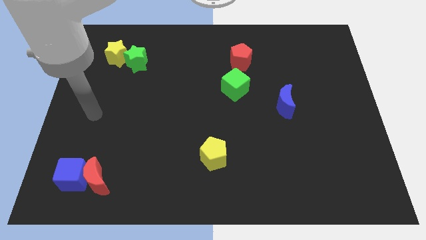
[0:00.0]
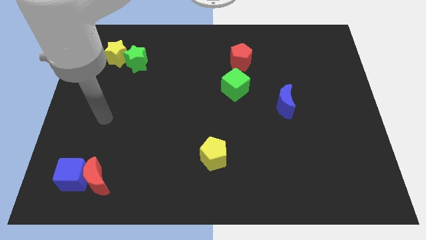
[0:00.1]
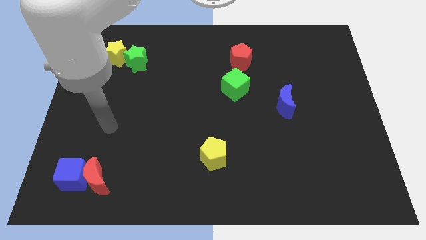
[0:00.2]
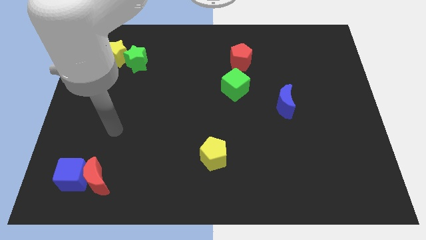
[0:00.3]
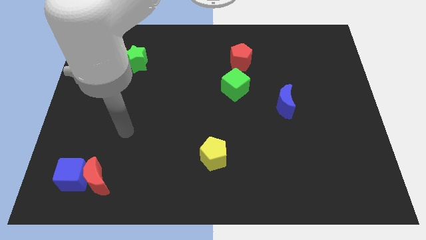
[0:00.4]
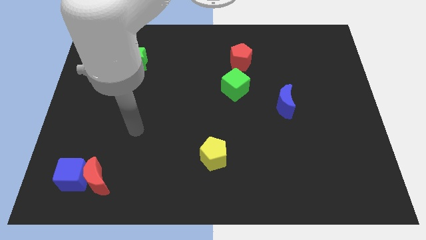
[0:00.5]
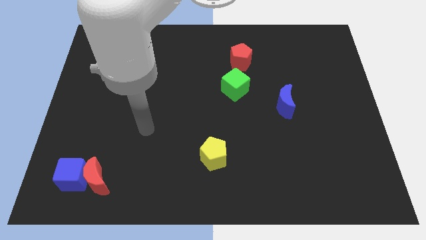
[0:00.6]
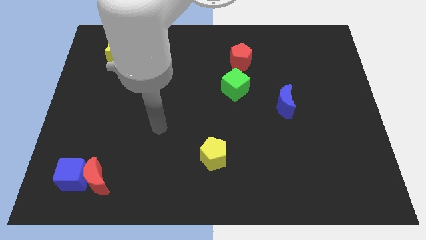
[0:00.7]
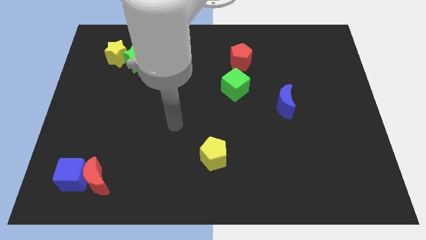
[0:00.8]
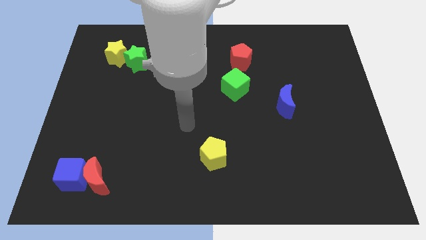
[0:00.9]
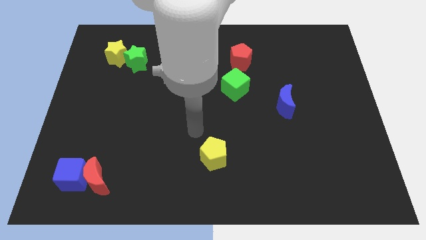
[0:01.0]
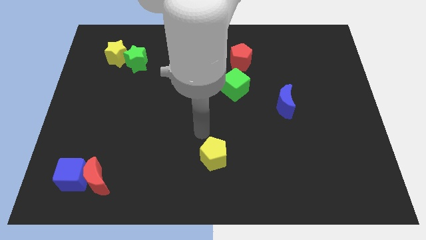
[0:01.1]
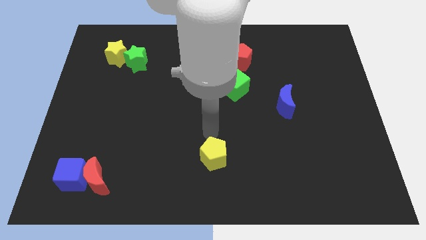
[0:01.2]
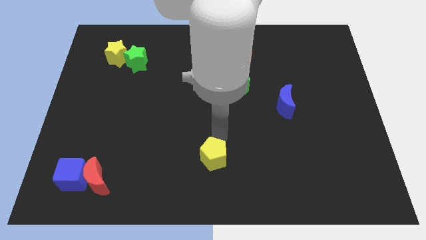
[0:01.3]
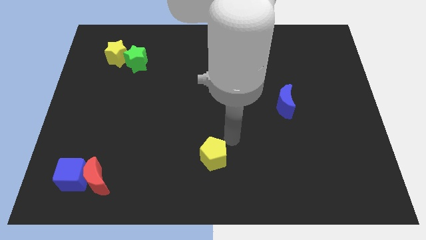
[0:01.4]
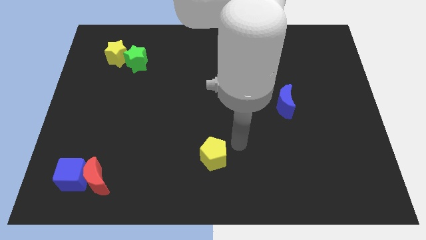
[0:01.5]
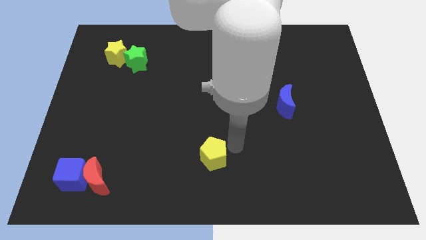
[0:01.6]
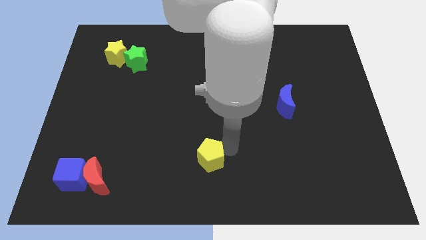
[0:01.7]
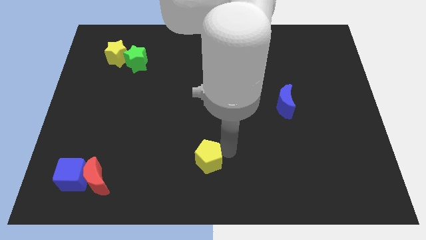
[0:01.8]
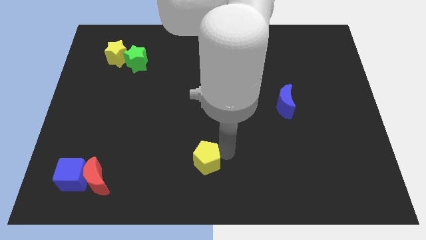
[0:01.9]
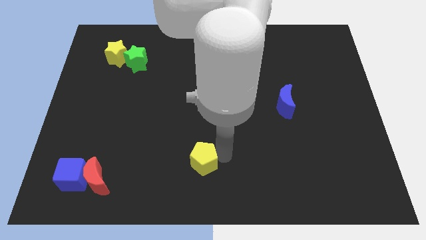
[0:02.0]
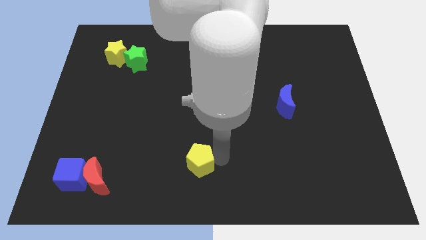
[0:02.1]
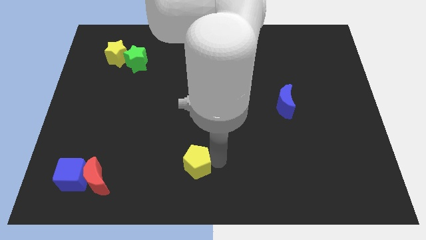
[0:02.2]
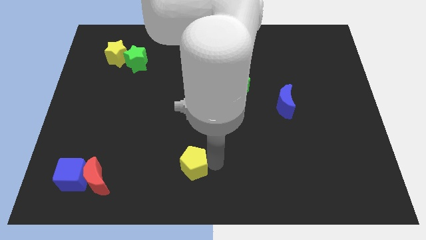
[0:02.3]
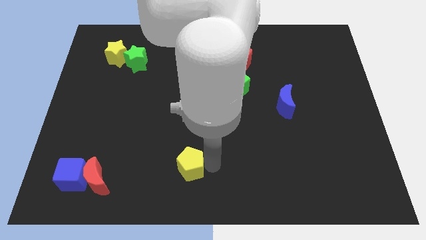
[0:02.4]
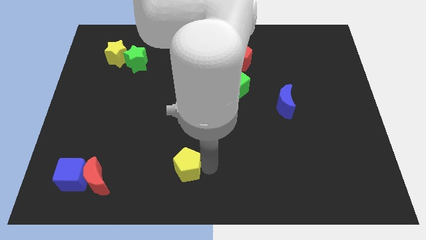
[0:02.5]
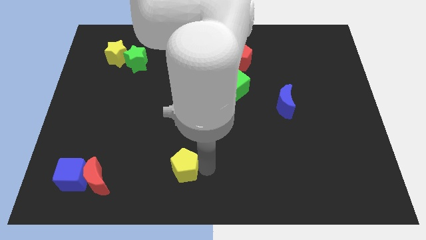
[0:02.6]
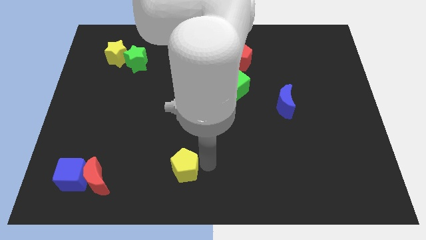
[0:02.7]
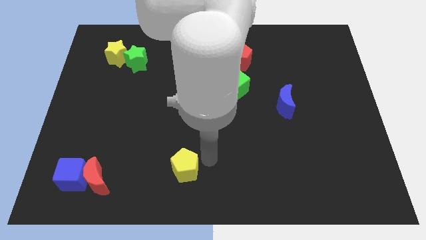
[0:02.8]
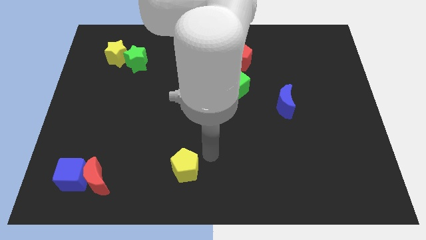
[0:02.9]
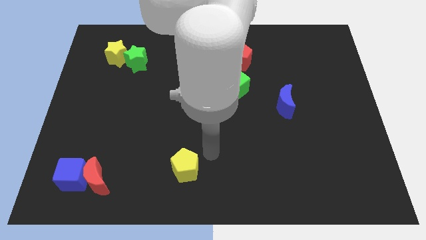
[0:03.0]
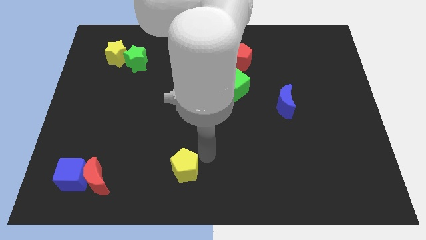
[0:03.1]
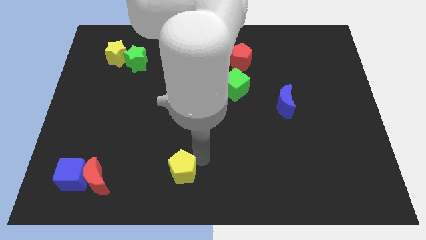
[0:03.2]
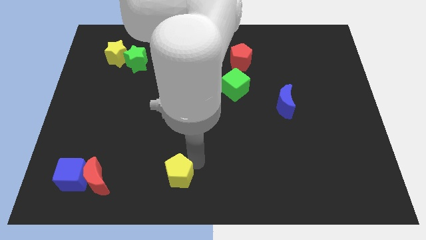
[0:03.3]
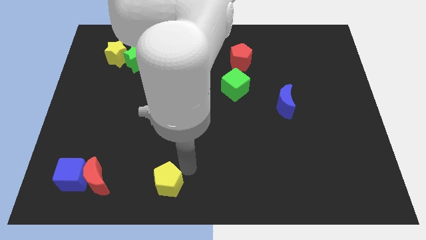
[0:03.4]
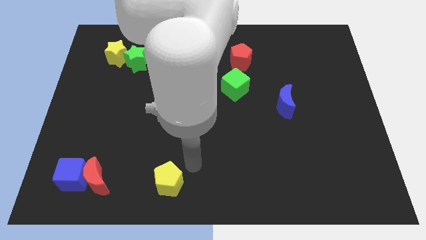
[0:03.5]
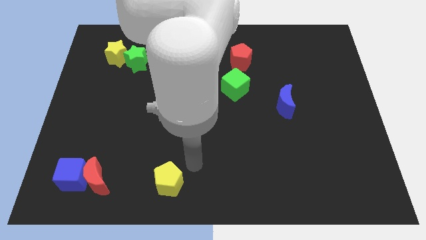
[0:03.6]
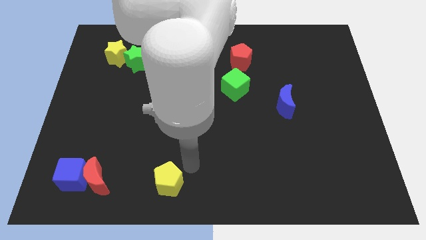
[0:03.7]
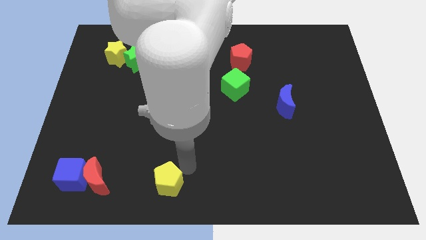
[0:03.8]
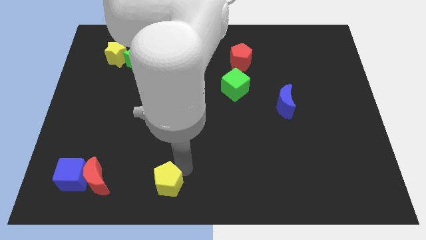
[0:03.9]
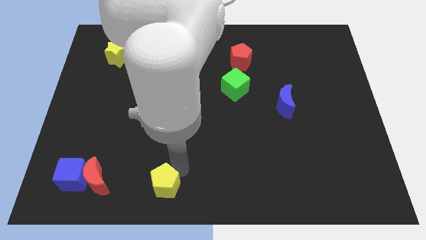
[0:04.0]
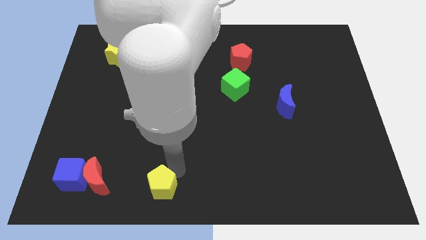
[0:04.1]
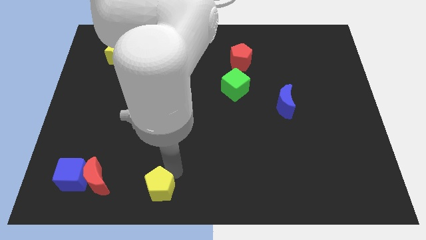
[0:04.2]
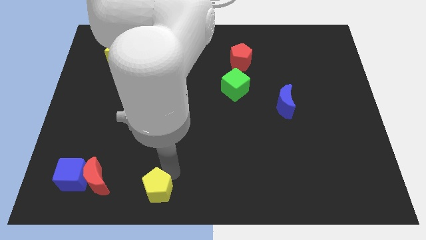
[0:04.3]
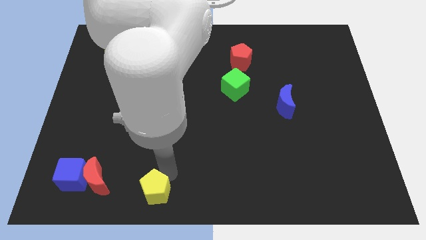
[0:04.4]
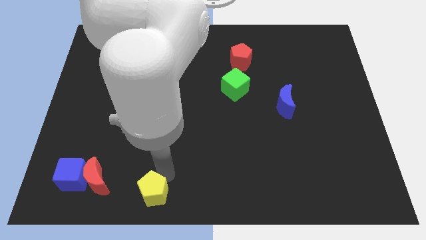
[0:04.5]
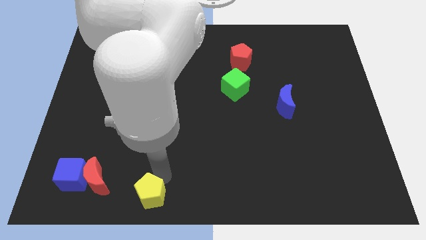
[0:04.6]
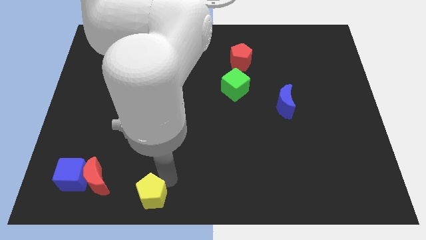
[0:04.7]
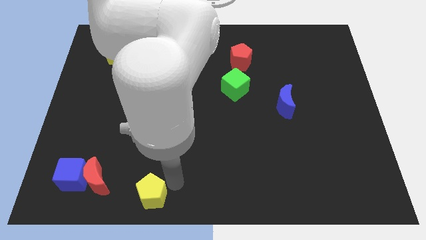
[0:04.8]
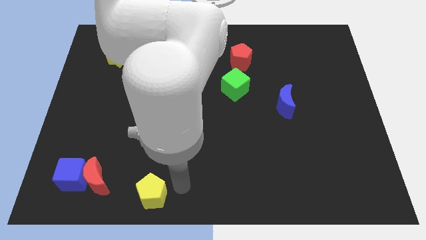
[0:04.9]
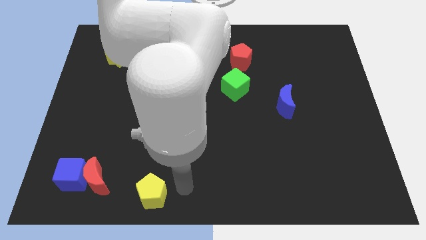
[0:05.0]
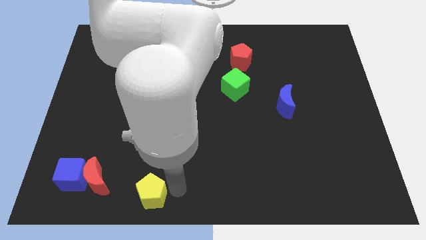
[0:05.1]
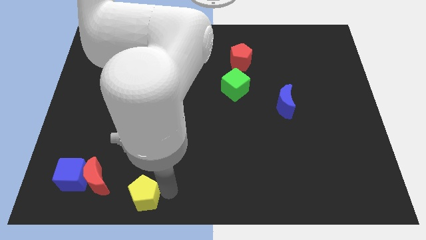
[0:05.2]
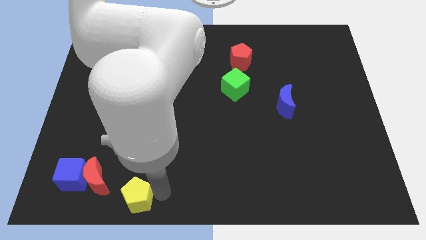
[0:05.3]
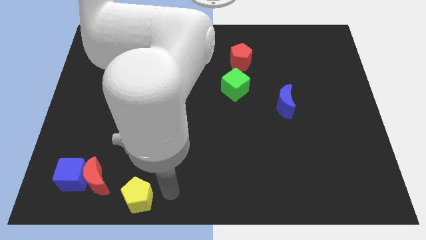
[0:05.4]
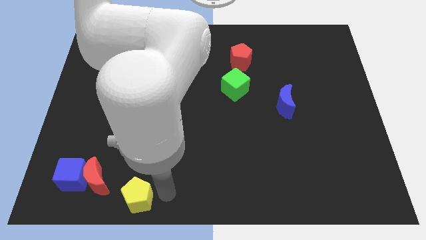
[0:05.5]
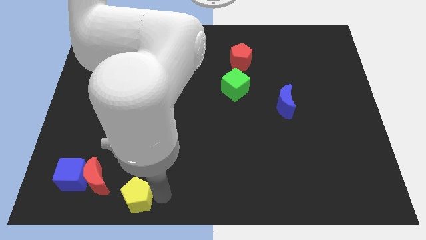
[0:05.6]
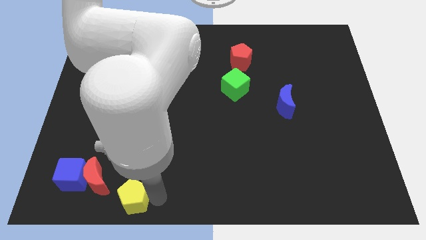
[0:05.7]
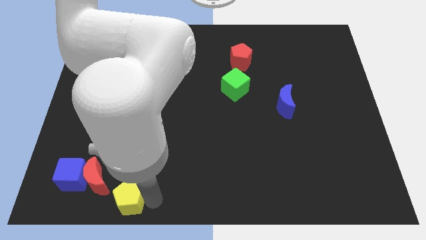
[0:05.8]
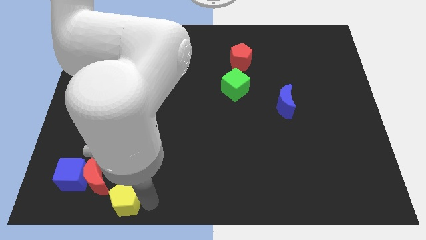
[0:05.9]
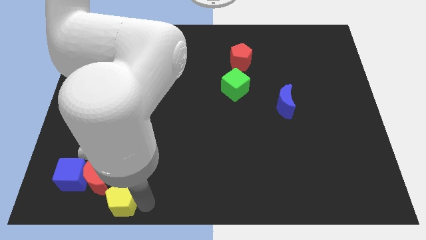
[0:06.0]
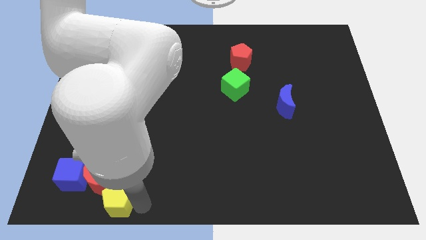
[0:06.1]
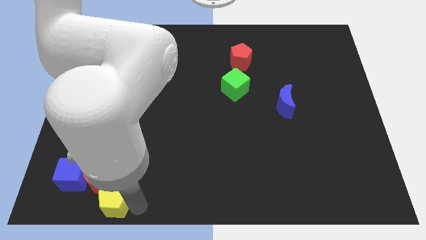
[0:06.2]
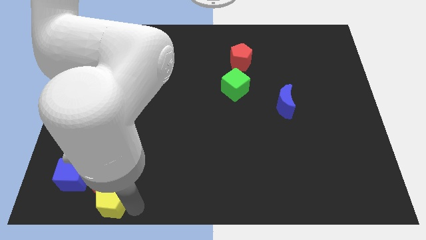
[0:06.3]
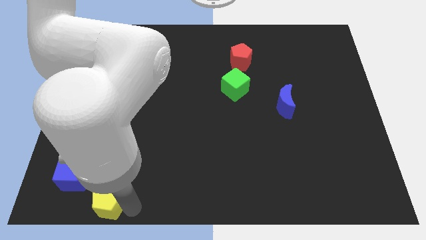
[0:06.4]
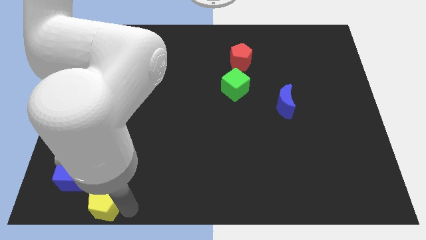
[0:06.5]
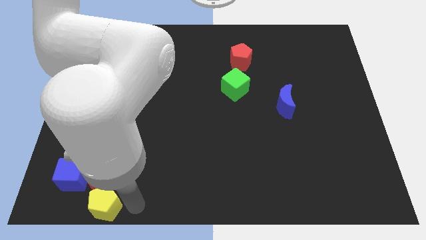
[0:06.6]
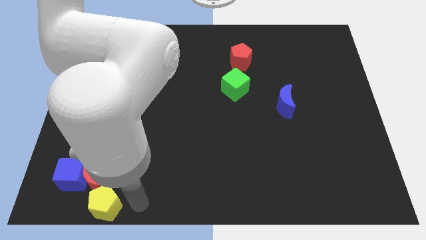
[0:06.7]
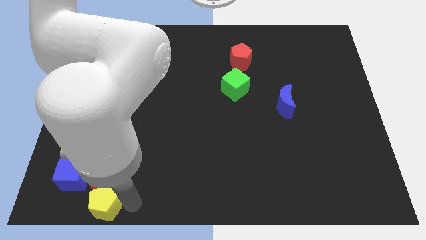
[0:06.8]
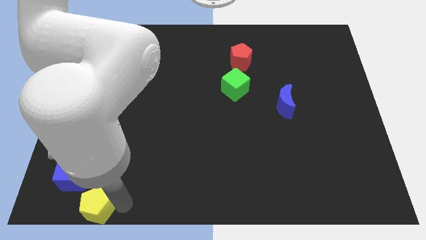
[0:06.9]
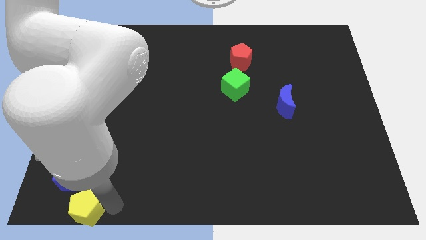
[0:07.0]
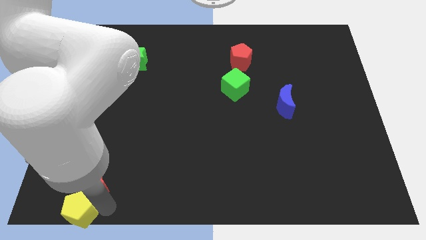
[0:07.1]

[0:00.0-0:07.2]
move the yellow pentagon to the lower left corner
